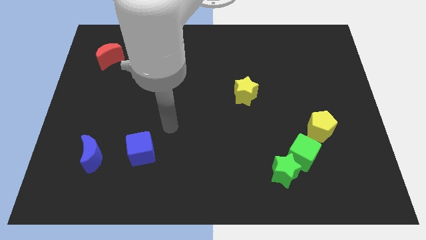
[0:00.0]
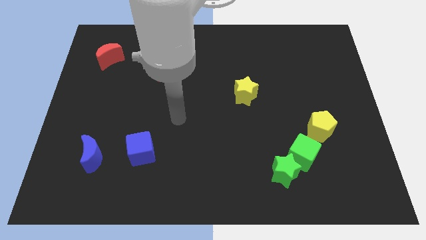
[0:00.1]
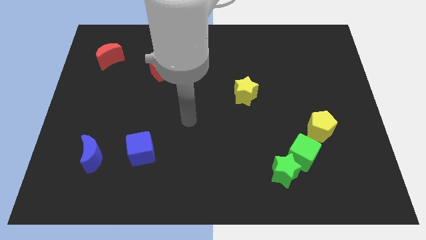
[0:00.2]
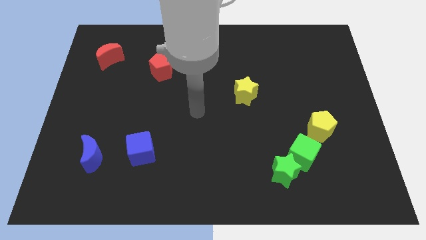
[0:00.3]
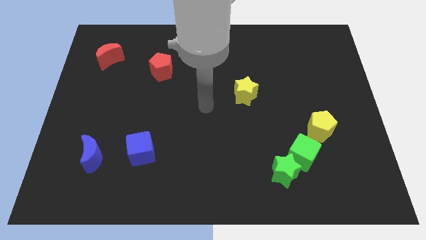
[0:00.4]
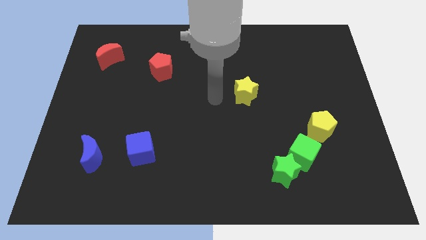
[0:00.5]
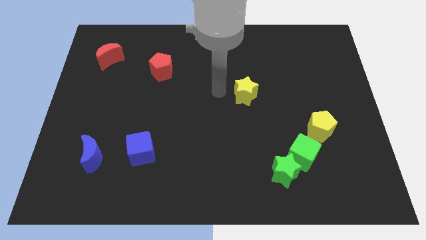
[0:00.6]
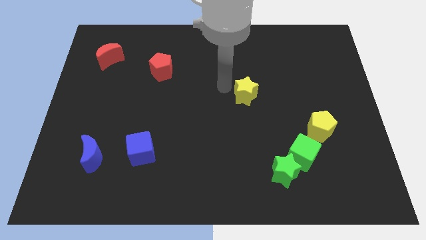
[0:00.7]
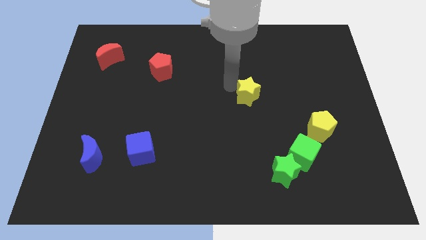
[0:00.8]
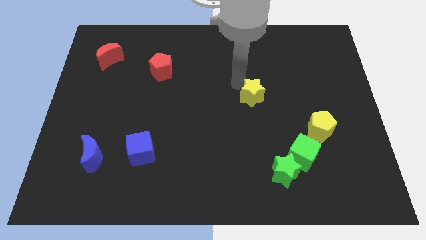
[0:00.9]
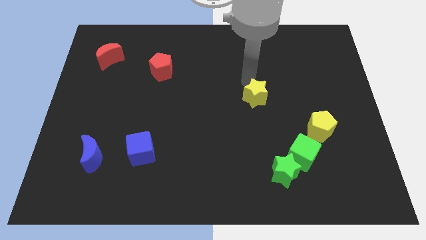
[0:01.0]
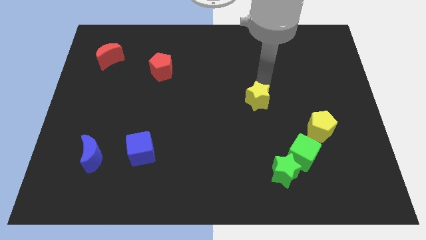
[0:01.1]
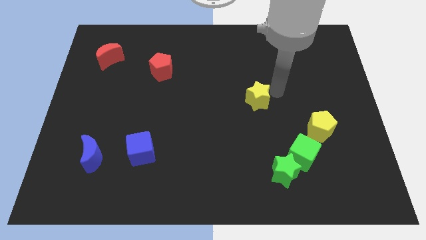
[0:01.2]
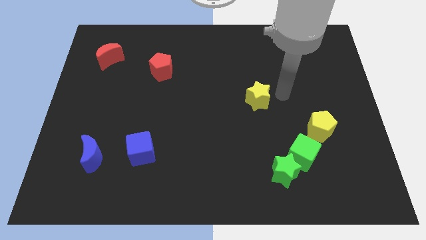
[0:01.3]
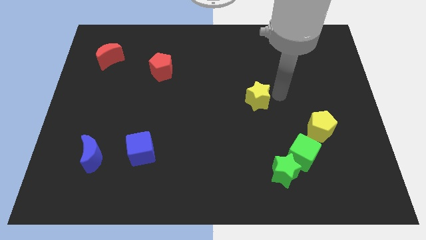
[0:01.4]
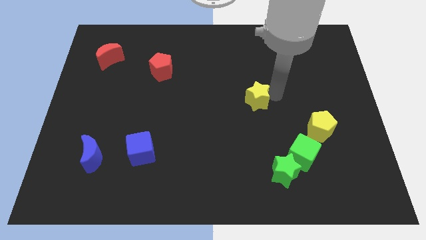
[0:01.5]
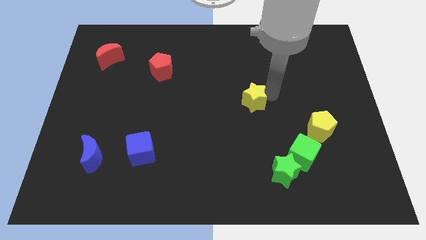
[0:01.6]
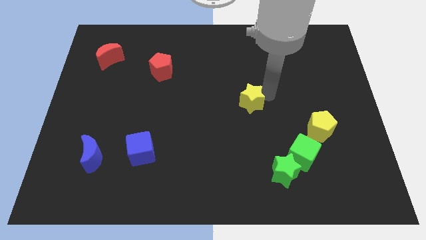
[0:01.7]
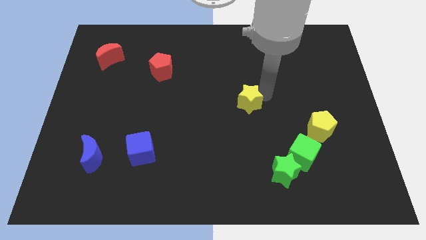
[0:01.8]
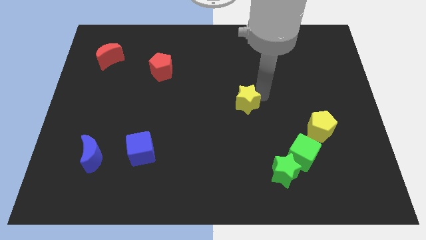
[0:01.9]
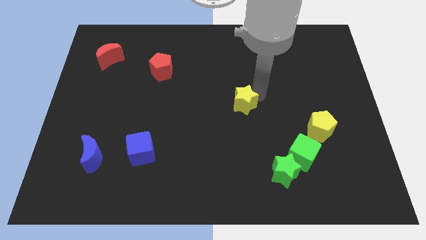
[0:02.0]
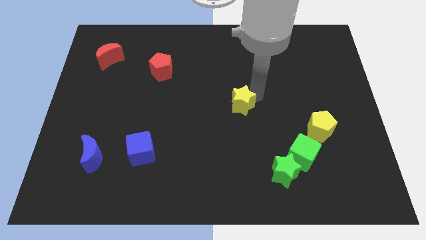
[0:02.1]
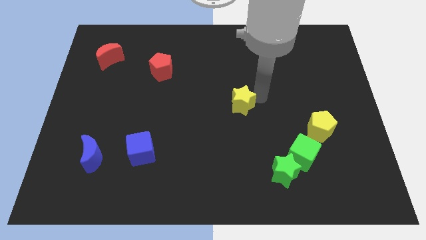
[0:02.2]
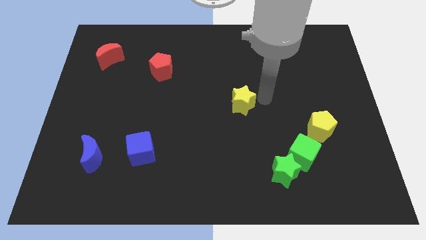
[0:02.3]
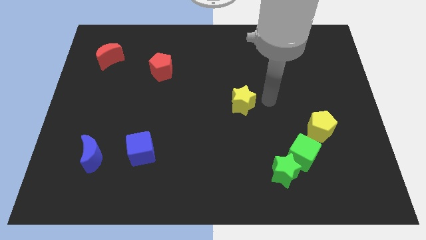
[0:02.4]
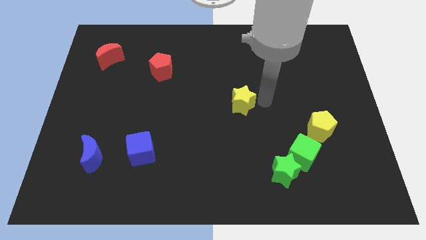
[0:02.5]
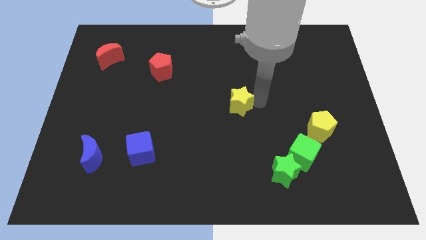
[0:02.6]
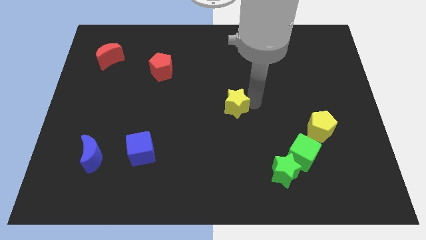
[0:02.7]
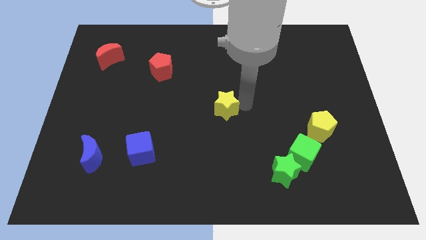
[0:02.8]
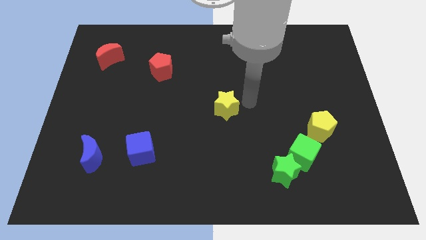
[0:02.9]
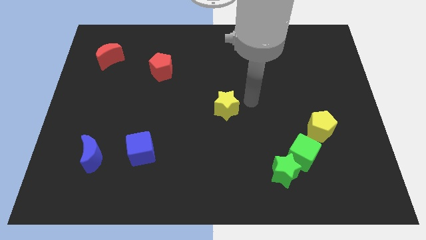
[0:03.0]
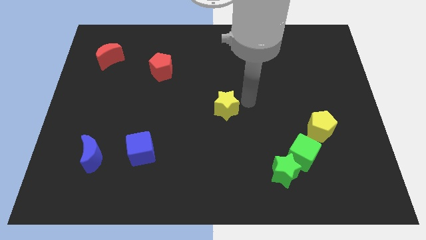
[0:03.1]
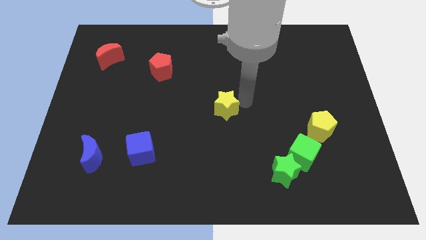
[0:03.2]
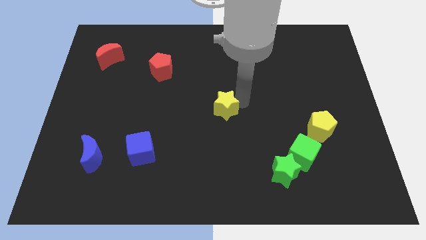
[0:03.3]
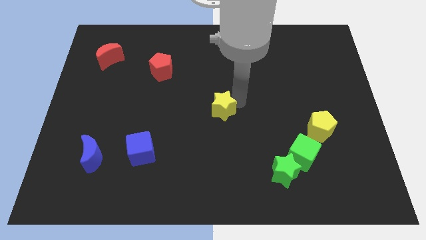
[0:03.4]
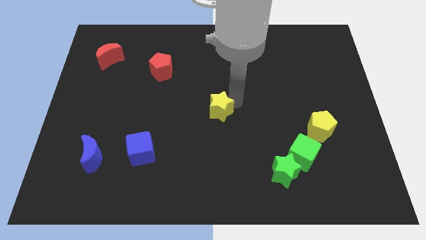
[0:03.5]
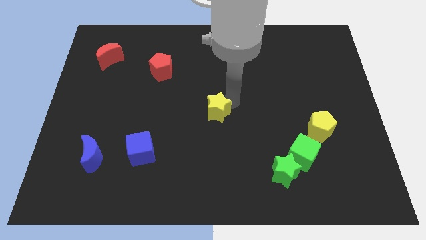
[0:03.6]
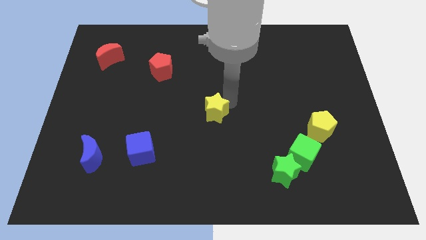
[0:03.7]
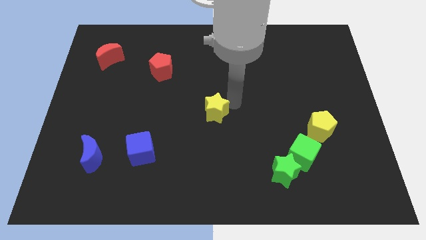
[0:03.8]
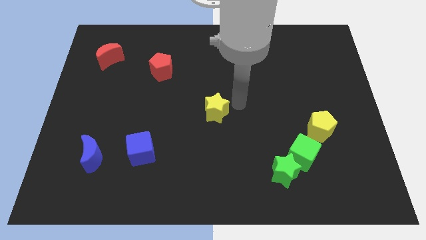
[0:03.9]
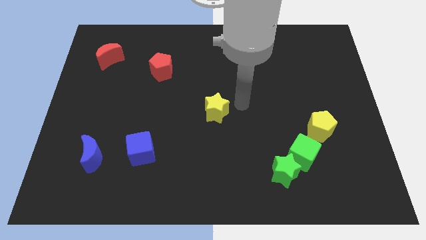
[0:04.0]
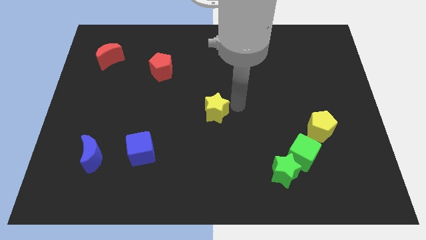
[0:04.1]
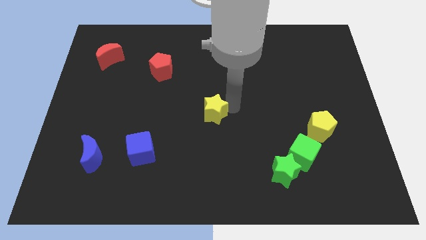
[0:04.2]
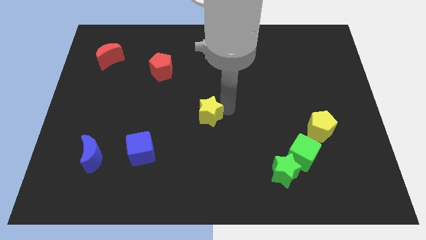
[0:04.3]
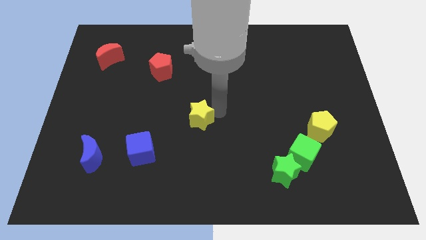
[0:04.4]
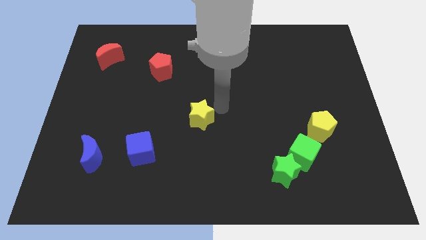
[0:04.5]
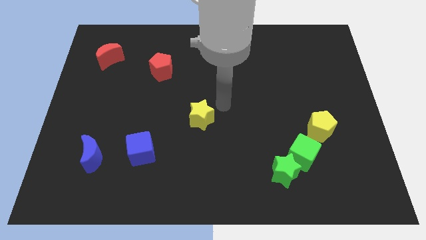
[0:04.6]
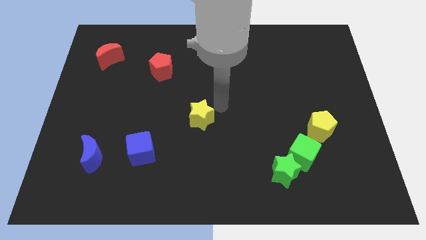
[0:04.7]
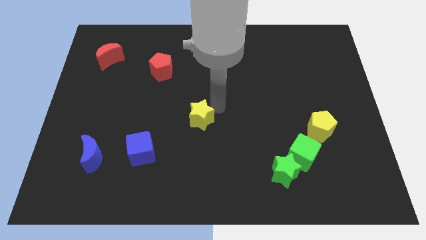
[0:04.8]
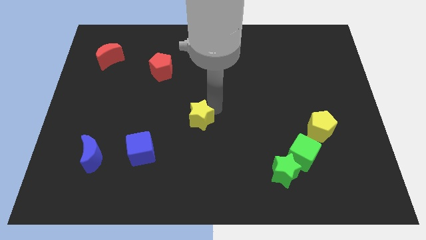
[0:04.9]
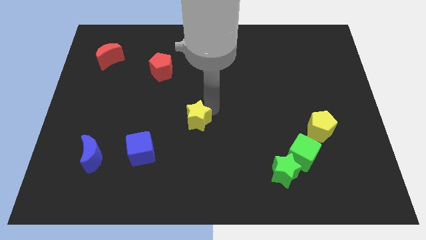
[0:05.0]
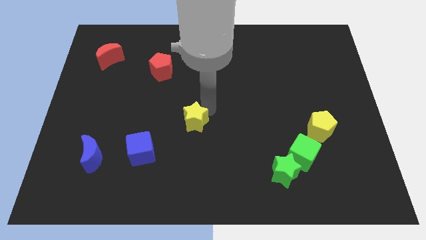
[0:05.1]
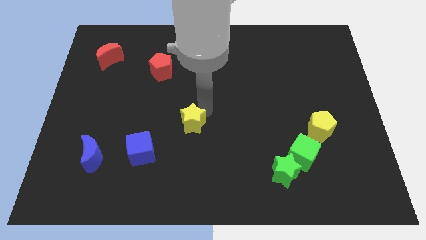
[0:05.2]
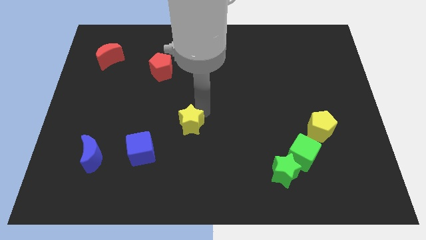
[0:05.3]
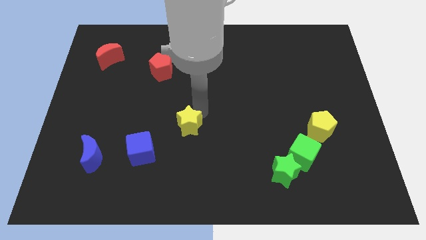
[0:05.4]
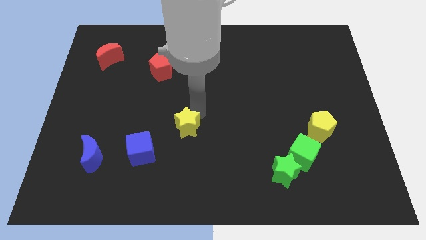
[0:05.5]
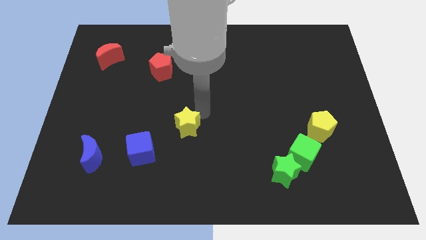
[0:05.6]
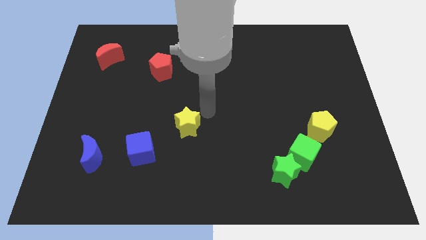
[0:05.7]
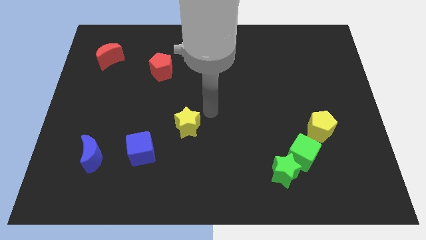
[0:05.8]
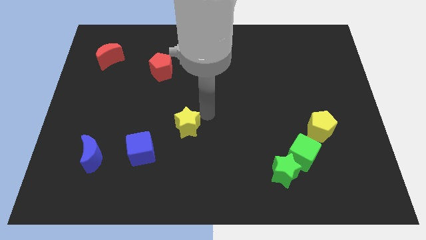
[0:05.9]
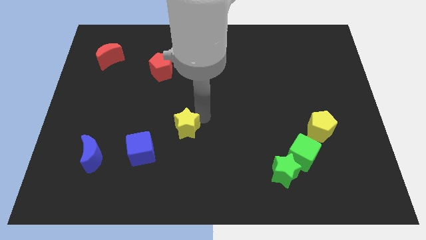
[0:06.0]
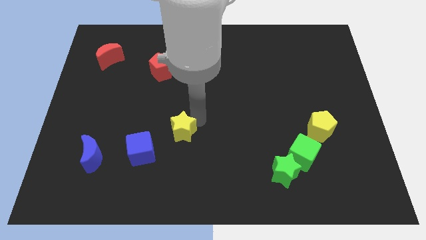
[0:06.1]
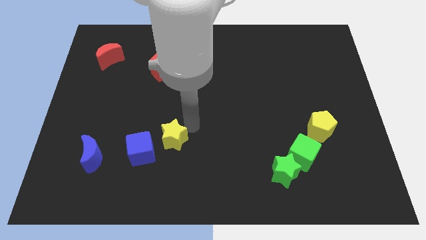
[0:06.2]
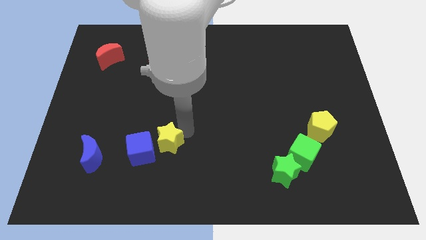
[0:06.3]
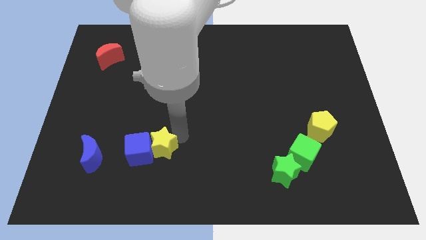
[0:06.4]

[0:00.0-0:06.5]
put the yellow star close to the blue cube
